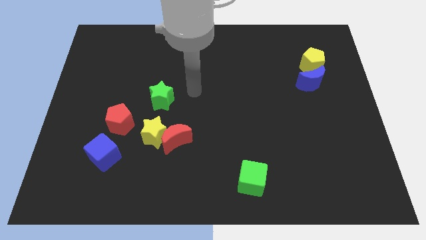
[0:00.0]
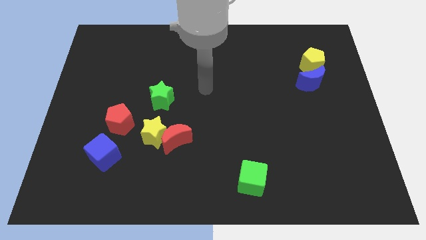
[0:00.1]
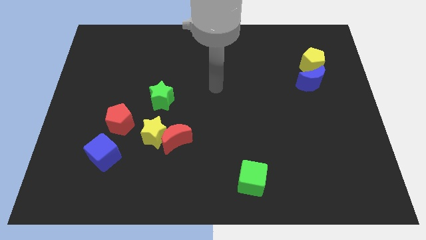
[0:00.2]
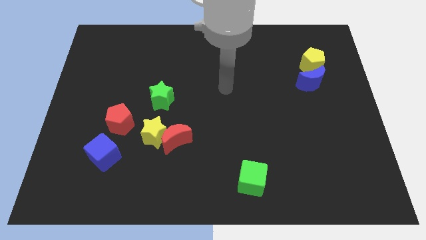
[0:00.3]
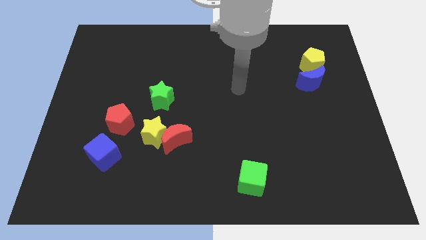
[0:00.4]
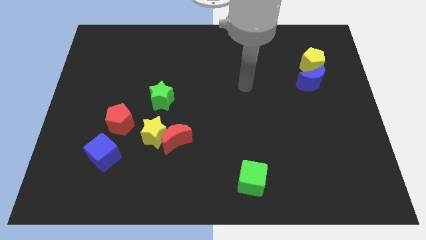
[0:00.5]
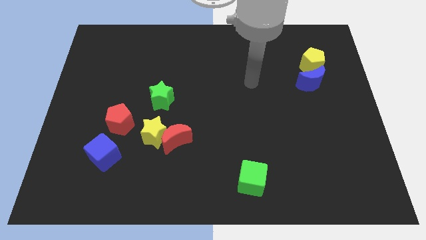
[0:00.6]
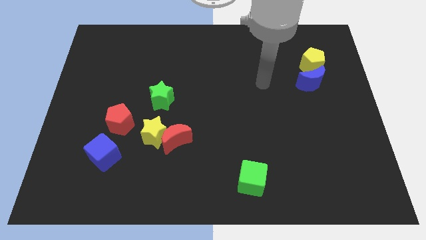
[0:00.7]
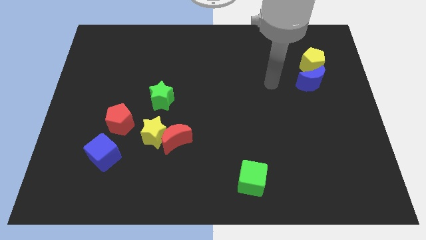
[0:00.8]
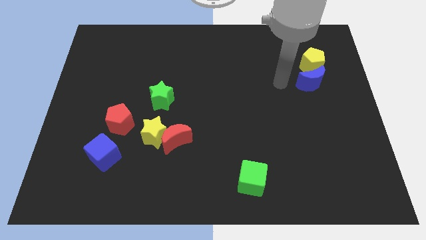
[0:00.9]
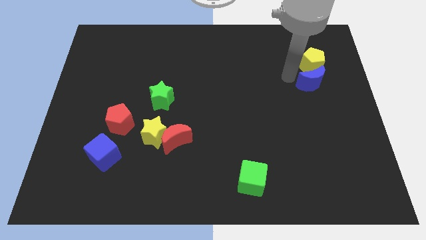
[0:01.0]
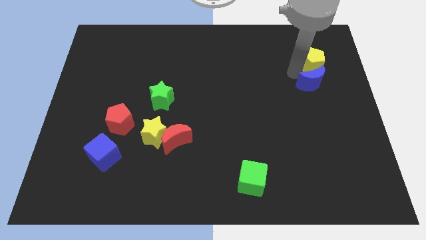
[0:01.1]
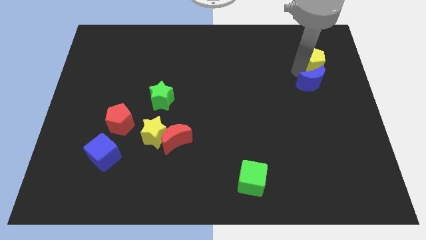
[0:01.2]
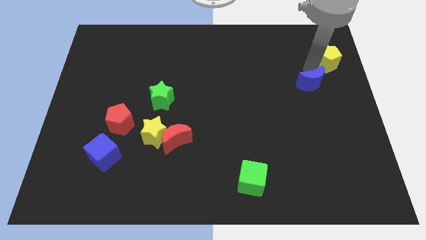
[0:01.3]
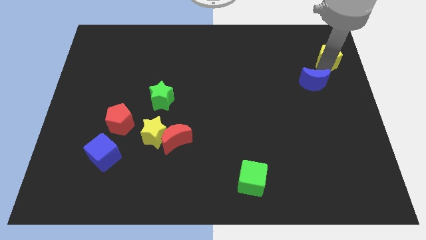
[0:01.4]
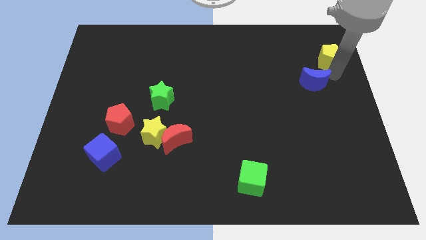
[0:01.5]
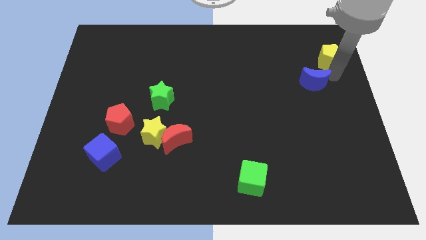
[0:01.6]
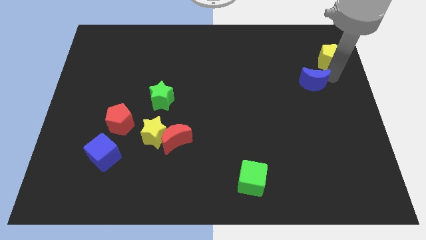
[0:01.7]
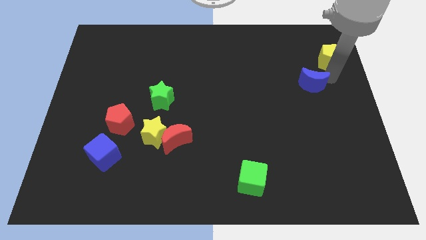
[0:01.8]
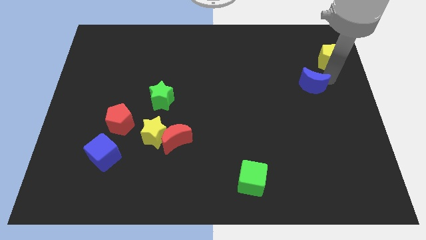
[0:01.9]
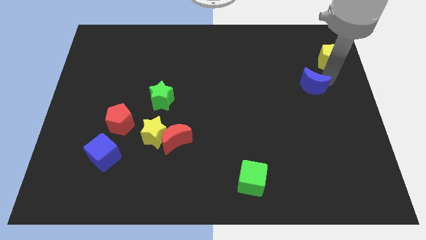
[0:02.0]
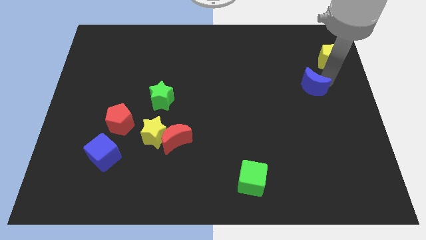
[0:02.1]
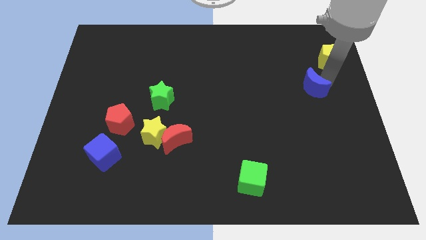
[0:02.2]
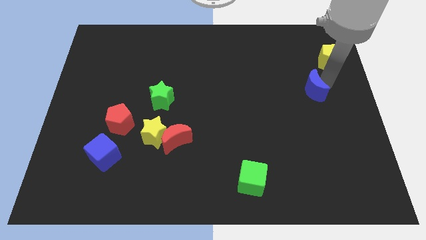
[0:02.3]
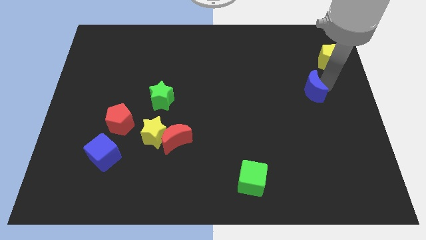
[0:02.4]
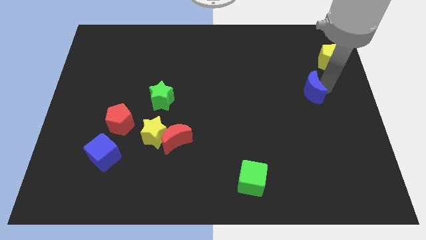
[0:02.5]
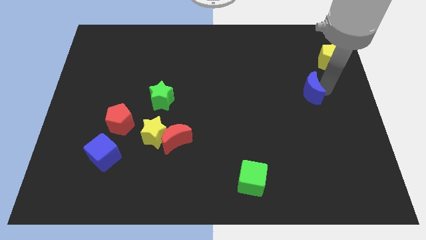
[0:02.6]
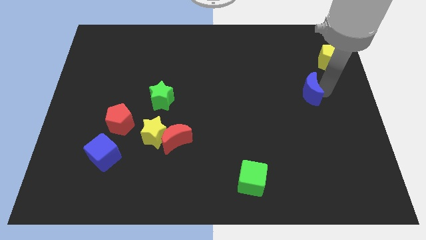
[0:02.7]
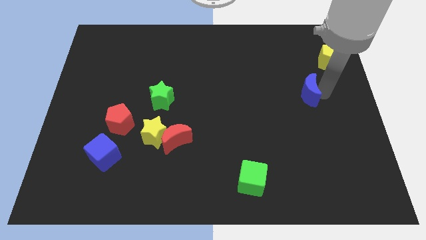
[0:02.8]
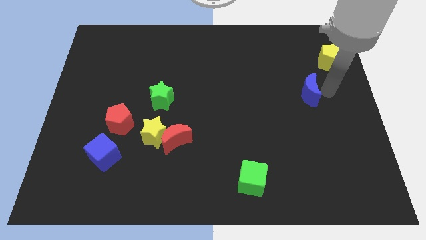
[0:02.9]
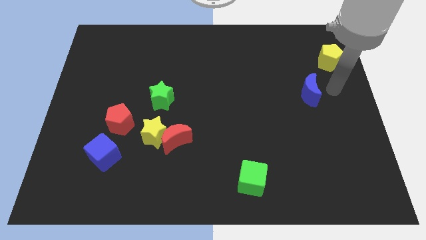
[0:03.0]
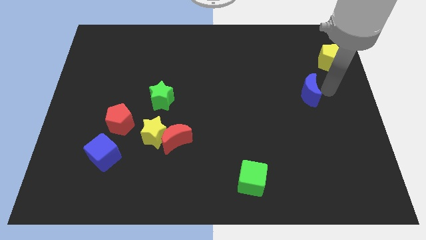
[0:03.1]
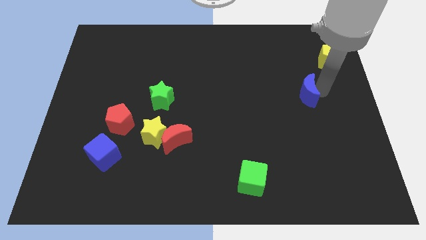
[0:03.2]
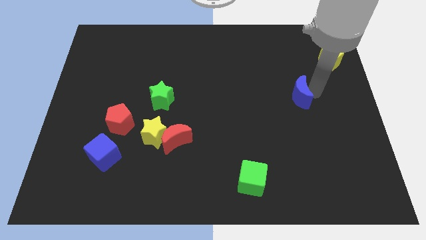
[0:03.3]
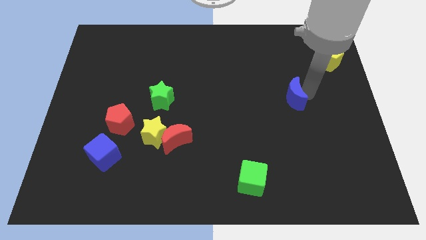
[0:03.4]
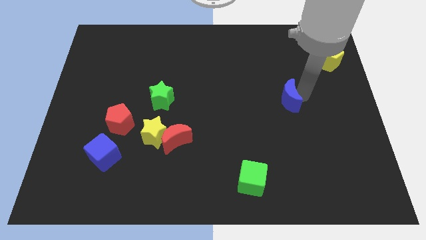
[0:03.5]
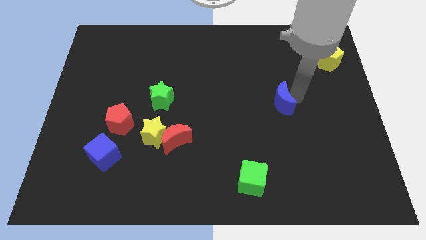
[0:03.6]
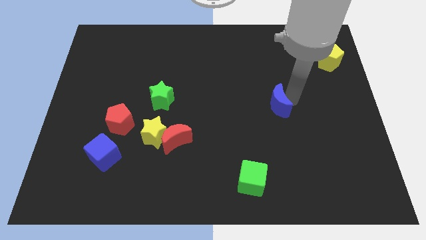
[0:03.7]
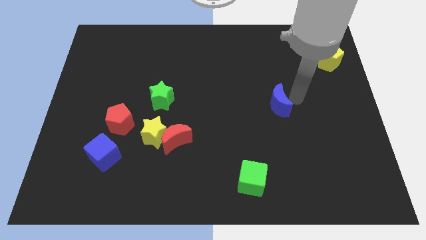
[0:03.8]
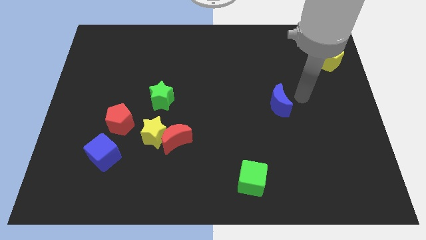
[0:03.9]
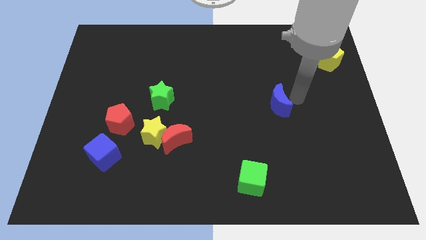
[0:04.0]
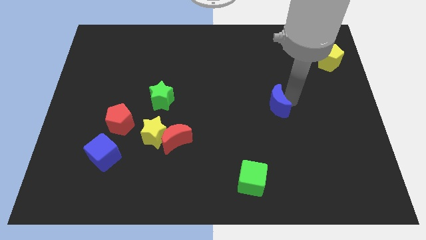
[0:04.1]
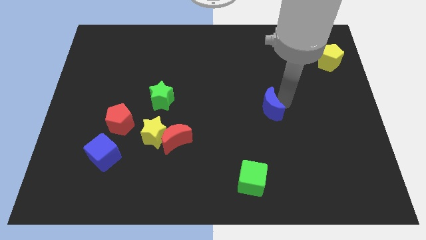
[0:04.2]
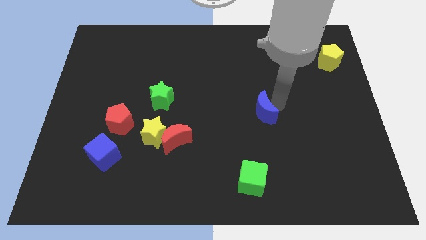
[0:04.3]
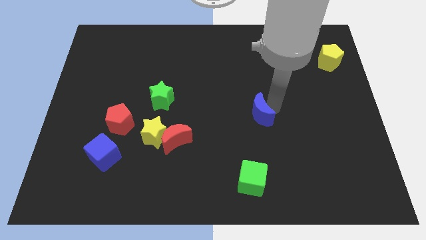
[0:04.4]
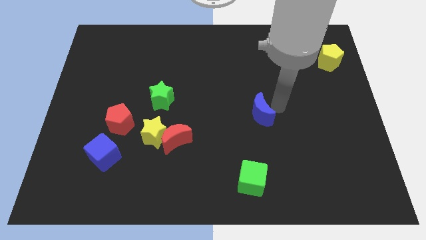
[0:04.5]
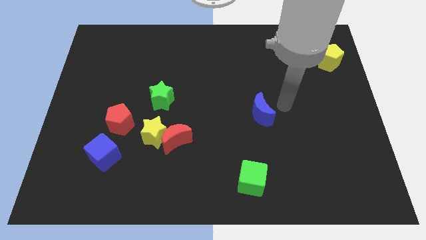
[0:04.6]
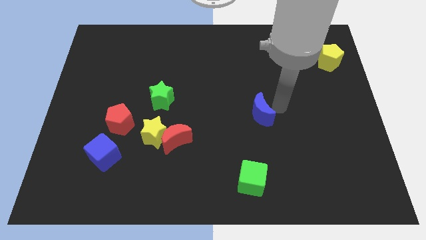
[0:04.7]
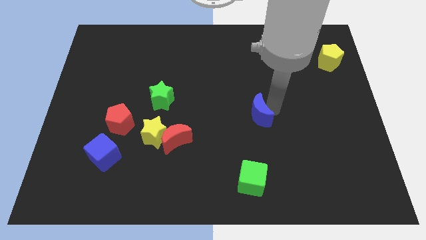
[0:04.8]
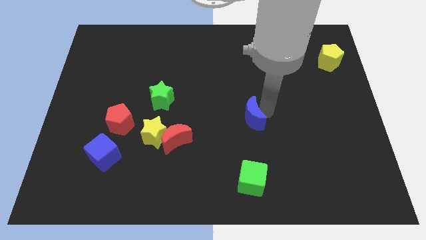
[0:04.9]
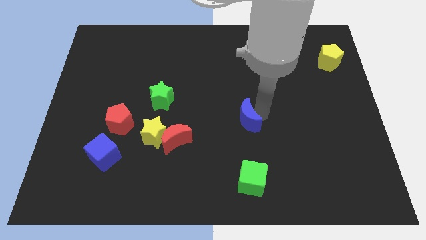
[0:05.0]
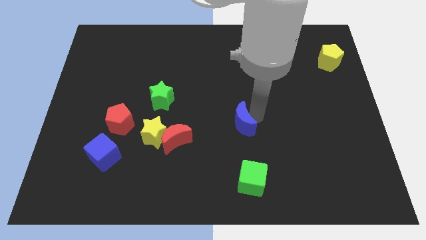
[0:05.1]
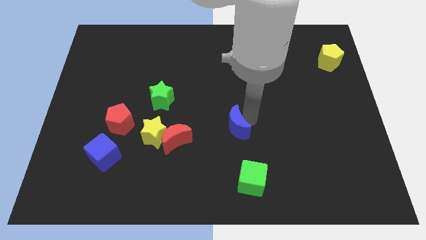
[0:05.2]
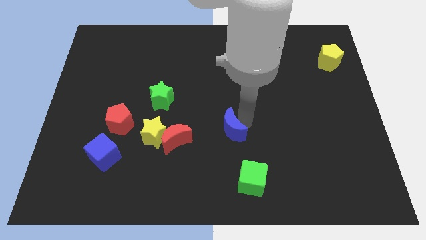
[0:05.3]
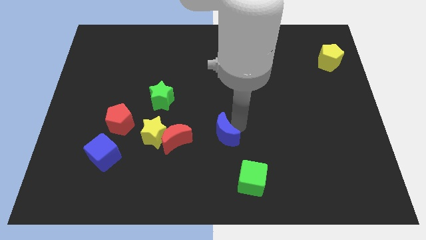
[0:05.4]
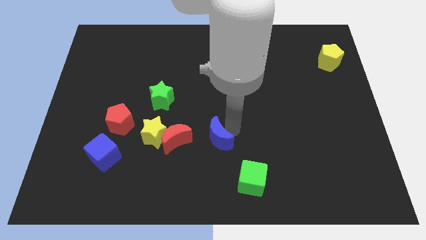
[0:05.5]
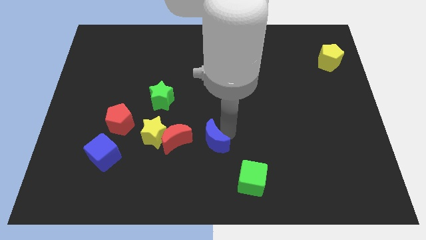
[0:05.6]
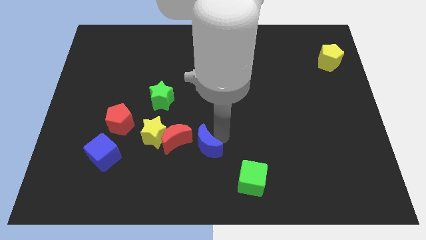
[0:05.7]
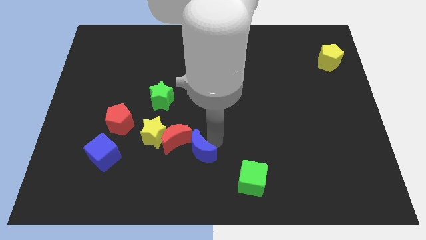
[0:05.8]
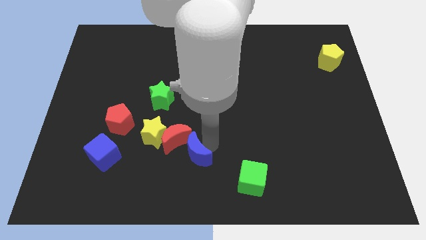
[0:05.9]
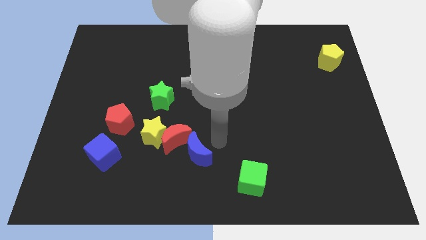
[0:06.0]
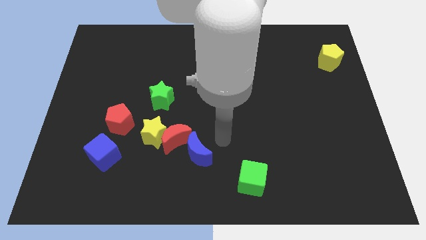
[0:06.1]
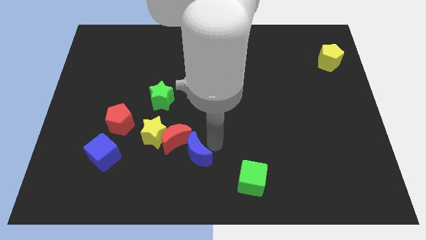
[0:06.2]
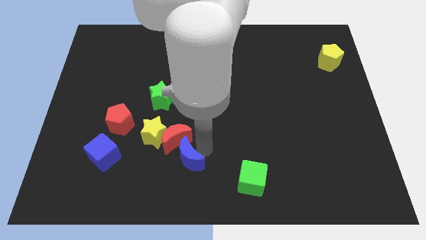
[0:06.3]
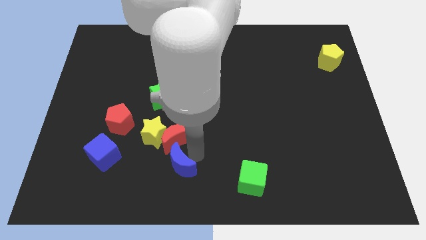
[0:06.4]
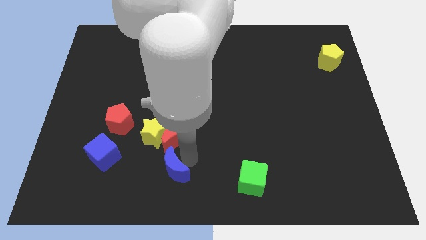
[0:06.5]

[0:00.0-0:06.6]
put the blue moon to the bottom of the yellow star
